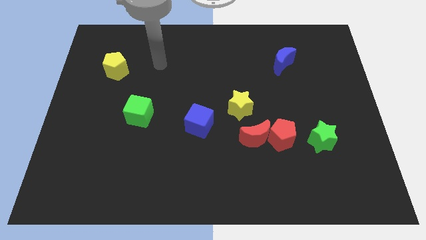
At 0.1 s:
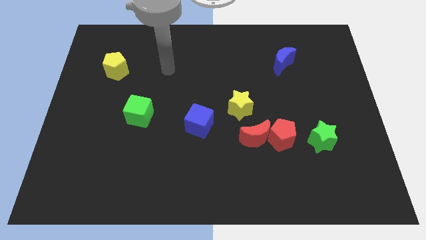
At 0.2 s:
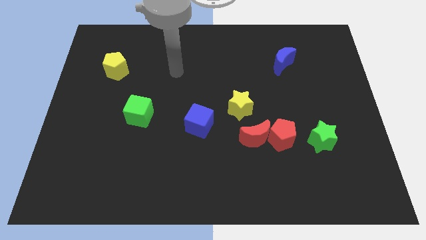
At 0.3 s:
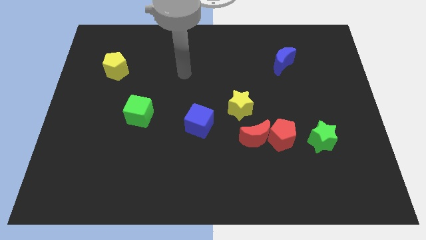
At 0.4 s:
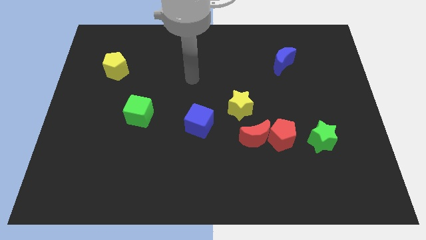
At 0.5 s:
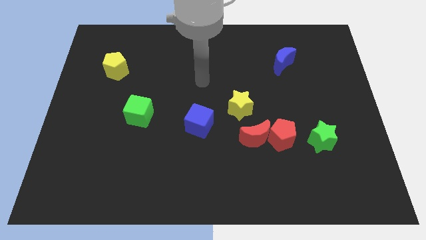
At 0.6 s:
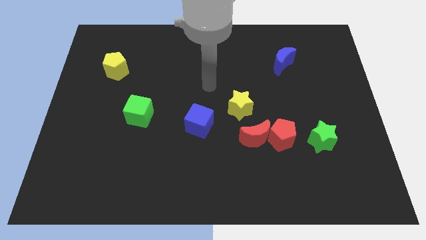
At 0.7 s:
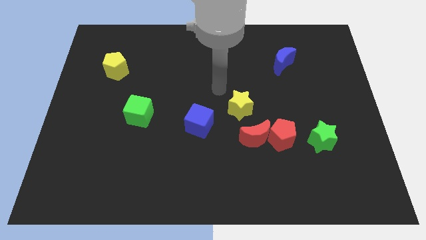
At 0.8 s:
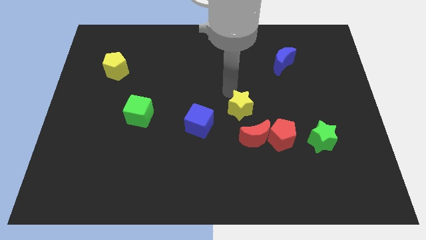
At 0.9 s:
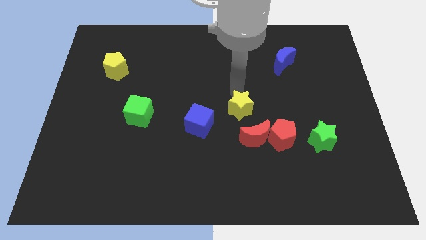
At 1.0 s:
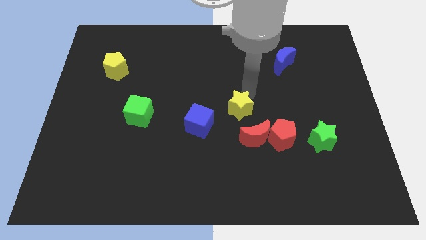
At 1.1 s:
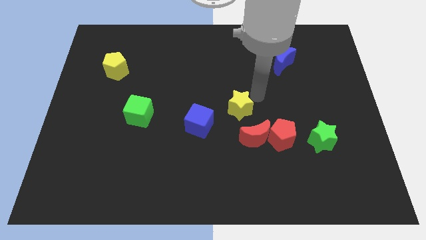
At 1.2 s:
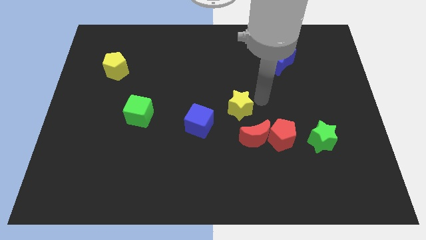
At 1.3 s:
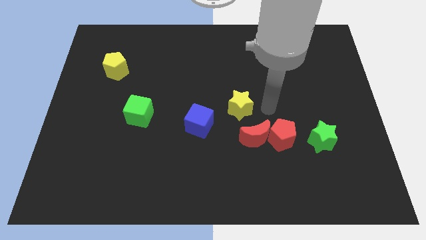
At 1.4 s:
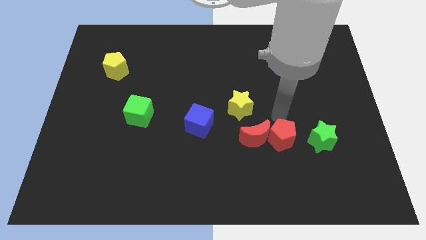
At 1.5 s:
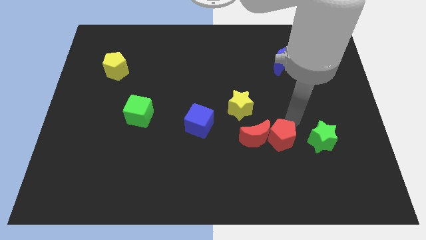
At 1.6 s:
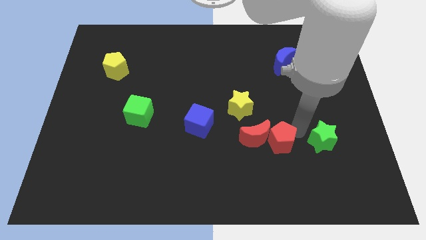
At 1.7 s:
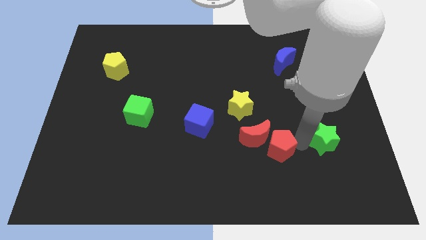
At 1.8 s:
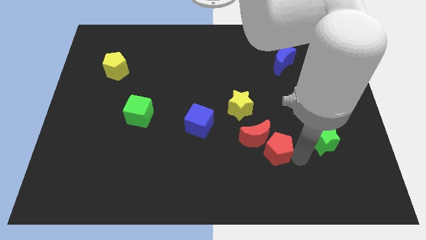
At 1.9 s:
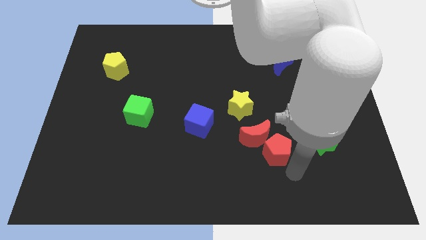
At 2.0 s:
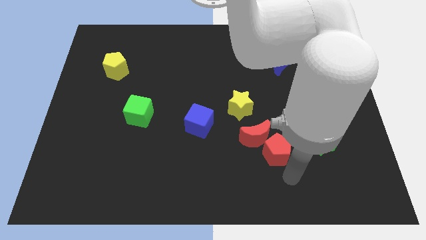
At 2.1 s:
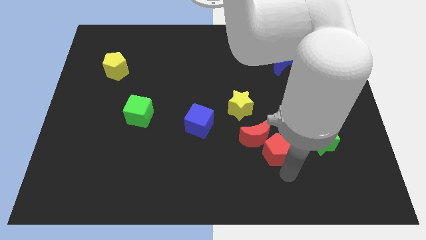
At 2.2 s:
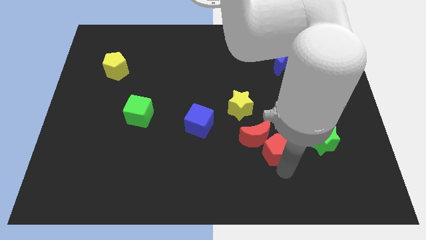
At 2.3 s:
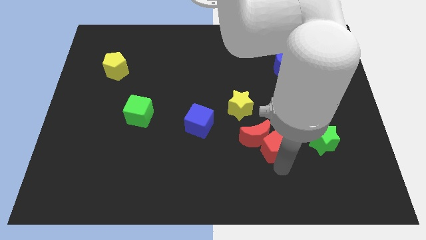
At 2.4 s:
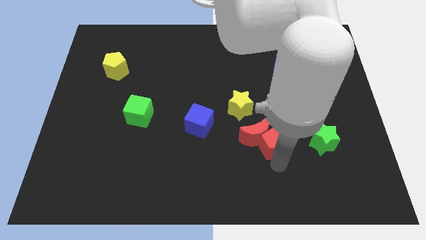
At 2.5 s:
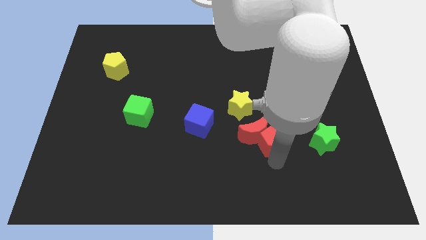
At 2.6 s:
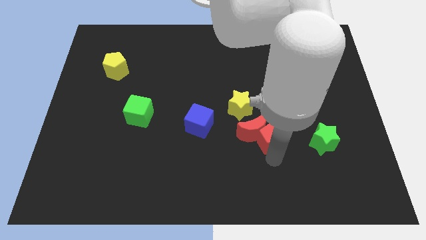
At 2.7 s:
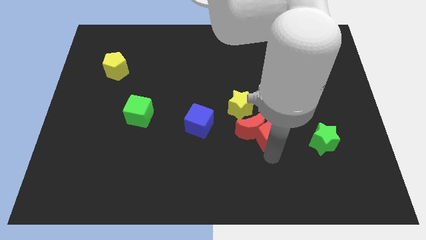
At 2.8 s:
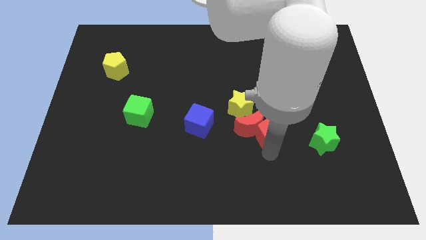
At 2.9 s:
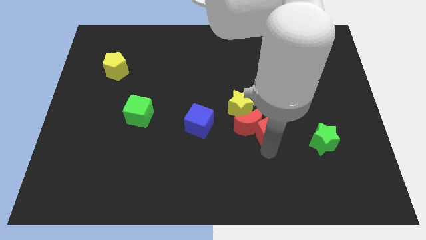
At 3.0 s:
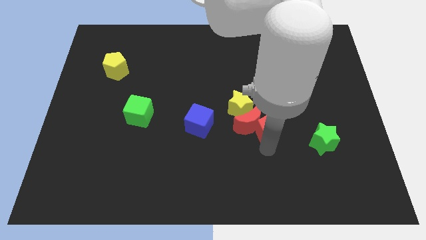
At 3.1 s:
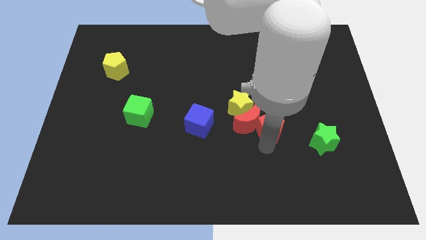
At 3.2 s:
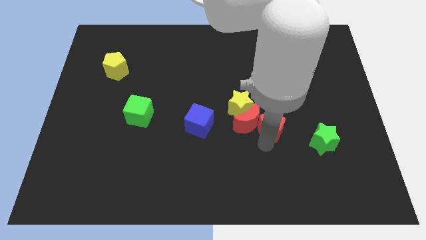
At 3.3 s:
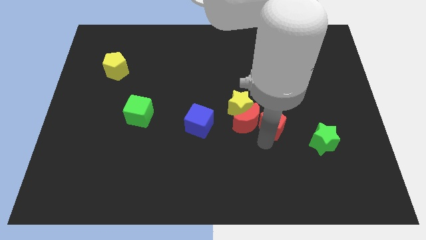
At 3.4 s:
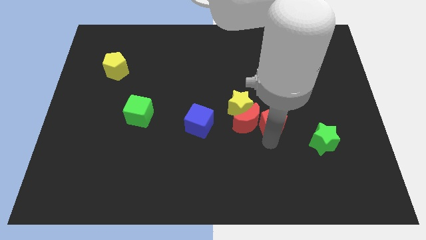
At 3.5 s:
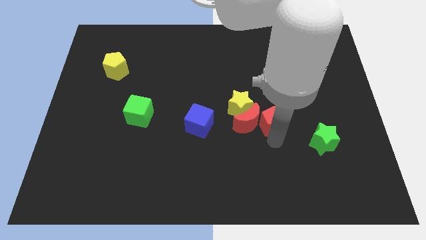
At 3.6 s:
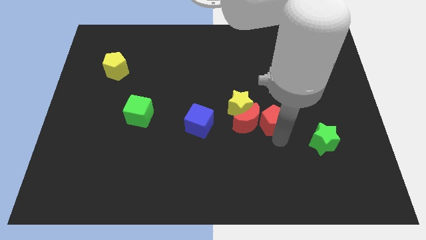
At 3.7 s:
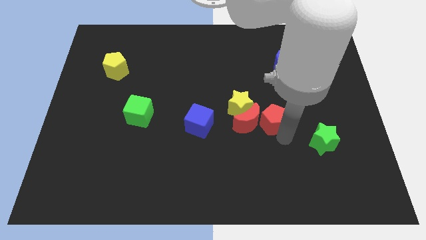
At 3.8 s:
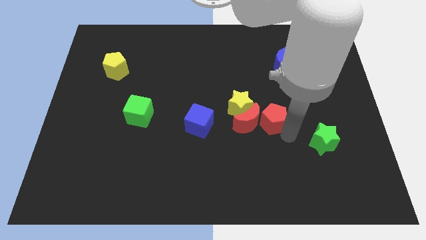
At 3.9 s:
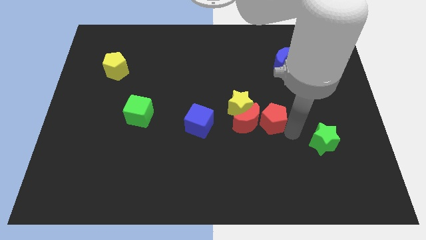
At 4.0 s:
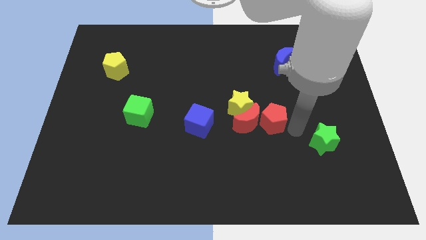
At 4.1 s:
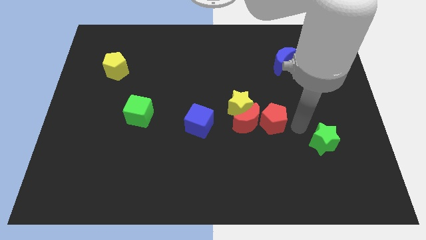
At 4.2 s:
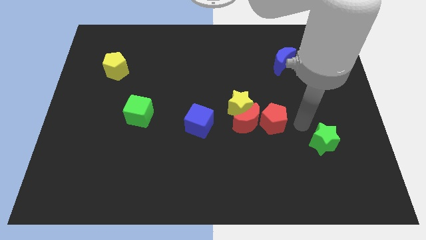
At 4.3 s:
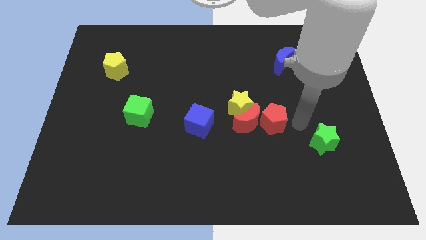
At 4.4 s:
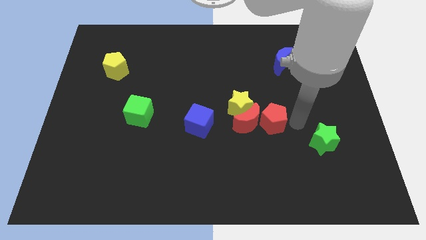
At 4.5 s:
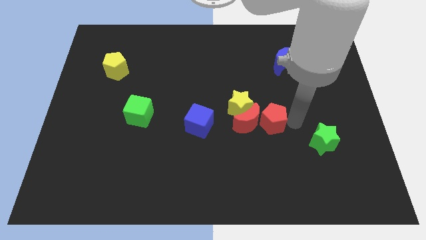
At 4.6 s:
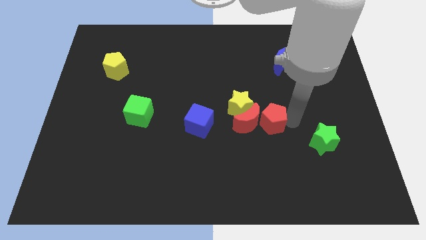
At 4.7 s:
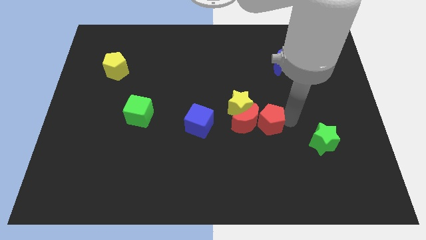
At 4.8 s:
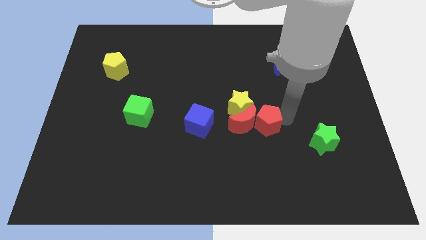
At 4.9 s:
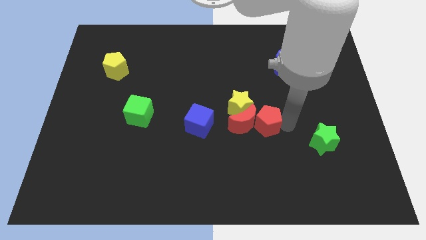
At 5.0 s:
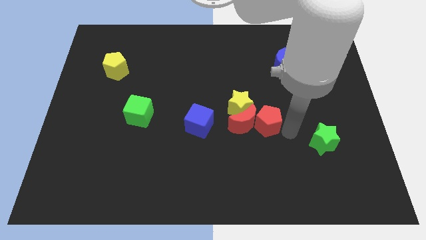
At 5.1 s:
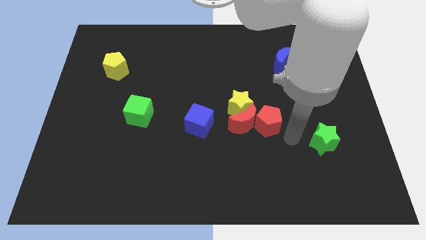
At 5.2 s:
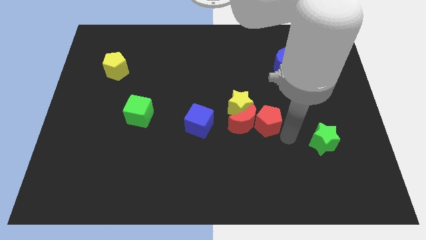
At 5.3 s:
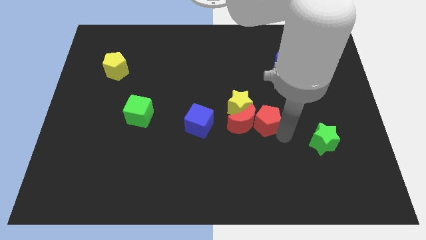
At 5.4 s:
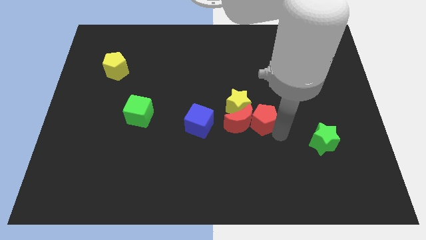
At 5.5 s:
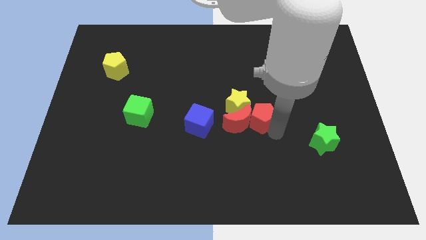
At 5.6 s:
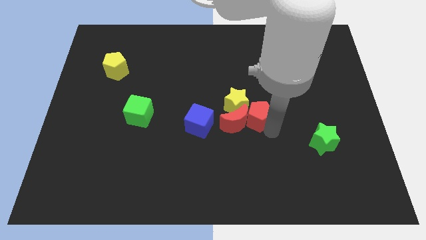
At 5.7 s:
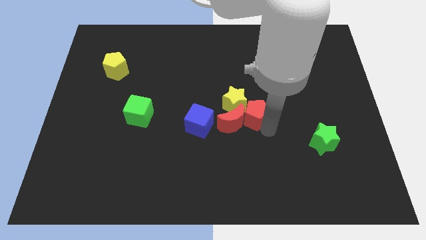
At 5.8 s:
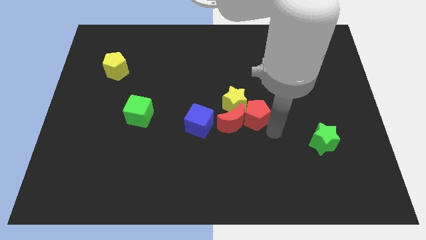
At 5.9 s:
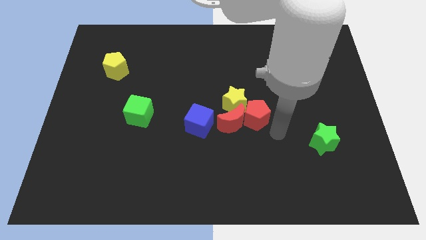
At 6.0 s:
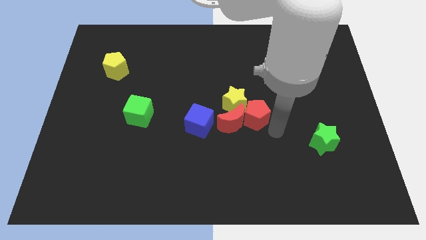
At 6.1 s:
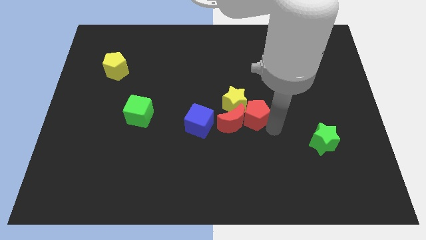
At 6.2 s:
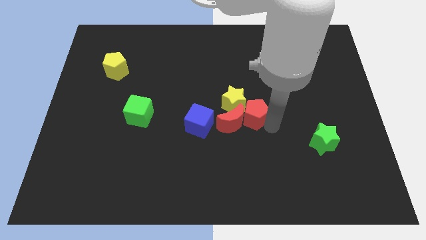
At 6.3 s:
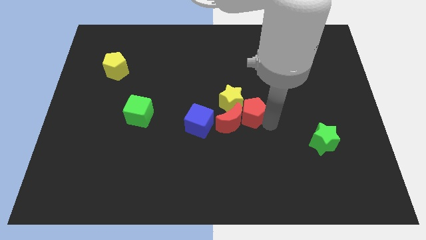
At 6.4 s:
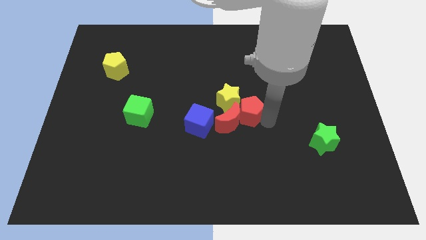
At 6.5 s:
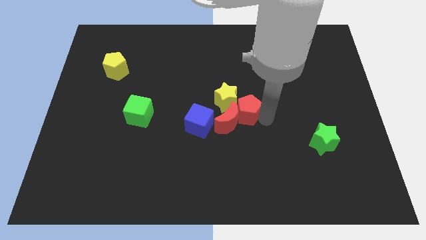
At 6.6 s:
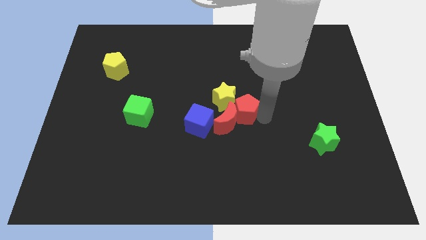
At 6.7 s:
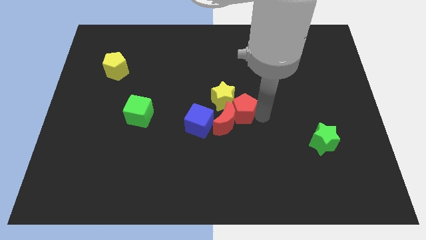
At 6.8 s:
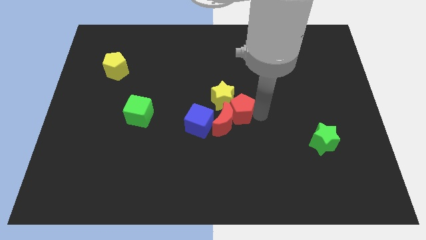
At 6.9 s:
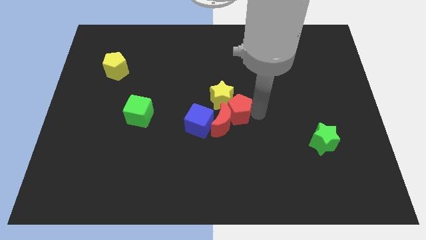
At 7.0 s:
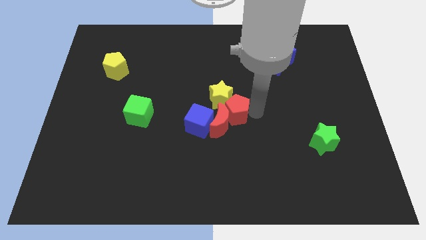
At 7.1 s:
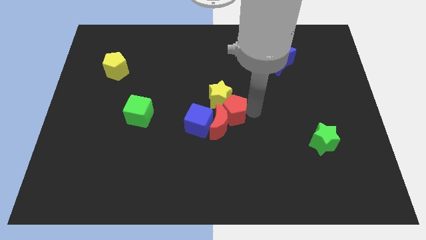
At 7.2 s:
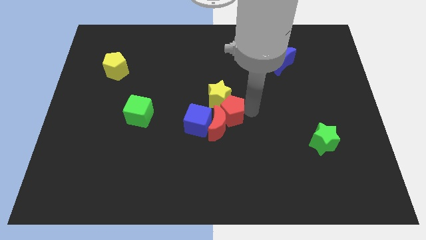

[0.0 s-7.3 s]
move the red pentagon away from the red moon and green star

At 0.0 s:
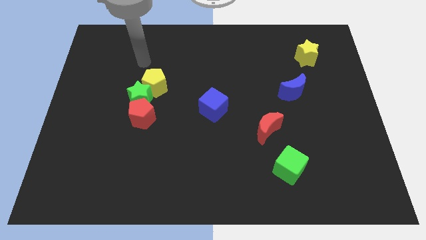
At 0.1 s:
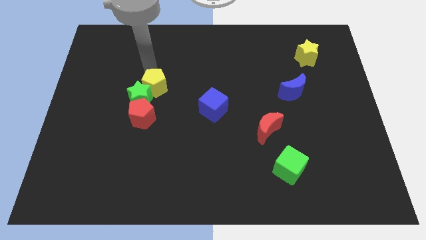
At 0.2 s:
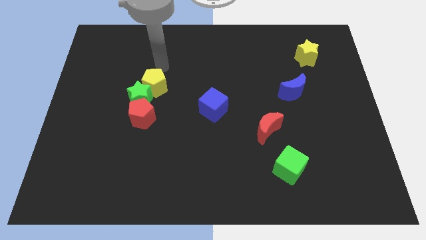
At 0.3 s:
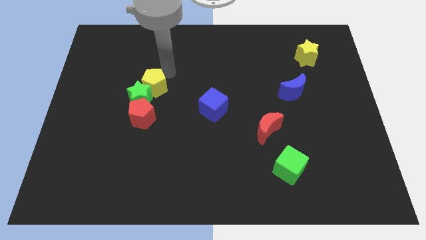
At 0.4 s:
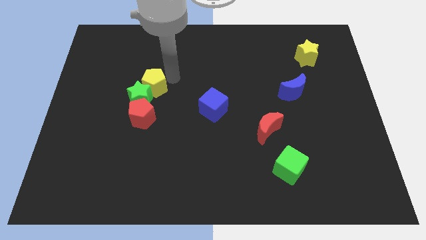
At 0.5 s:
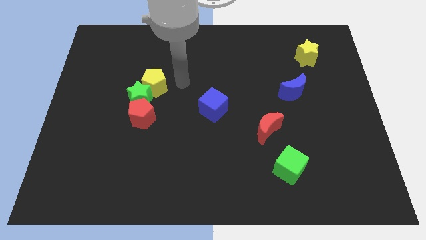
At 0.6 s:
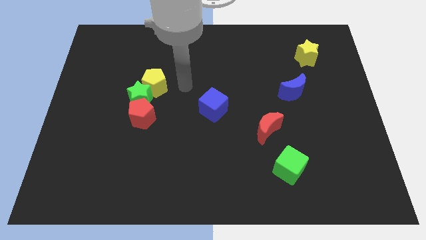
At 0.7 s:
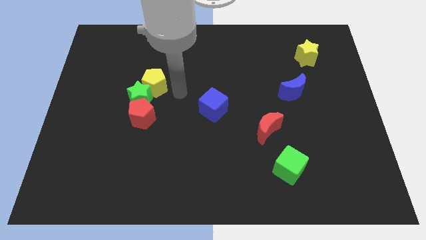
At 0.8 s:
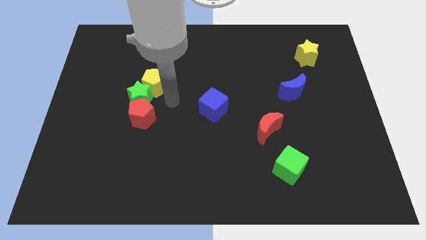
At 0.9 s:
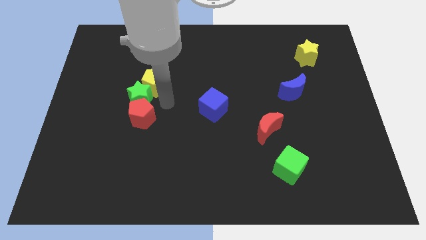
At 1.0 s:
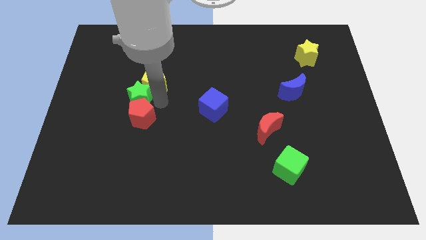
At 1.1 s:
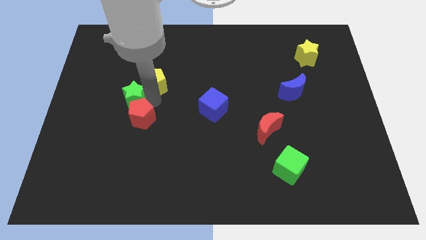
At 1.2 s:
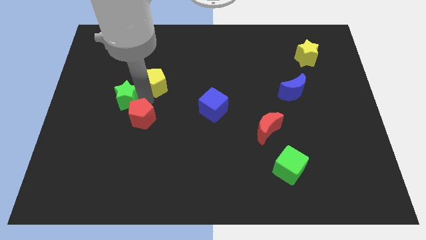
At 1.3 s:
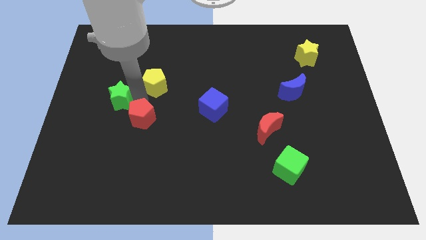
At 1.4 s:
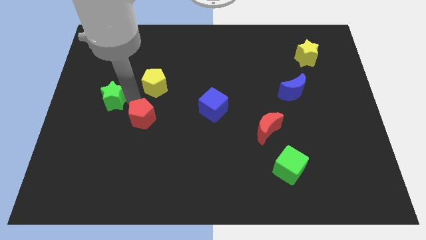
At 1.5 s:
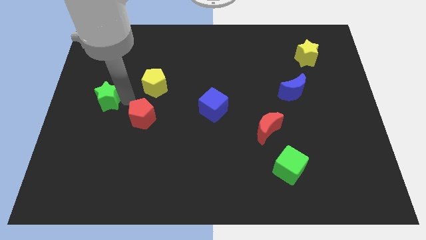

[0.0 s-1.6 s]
pull the green star apart from the yellow pentagon and red pentagon

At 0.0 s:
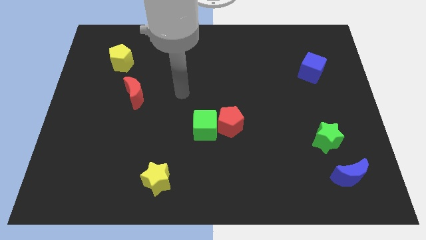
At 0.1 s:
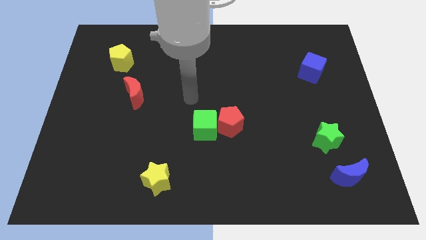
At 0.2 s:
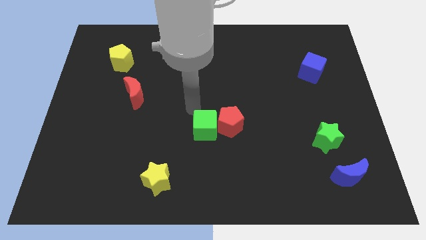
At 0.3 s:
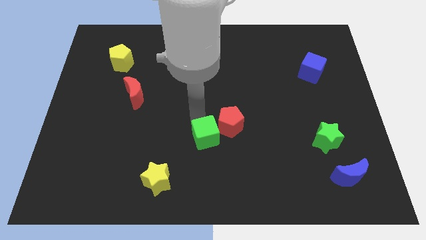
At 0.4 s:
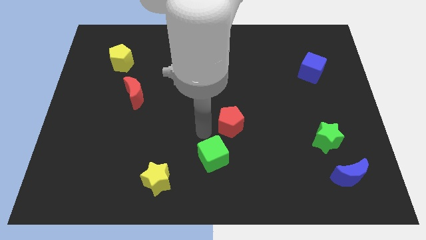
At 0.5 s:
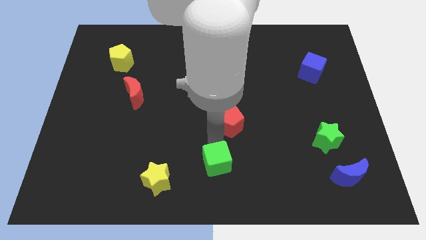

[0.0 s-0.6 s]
move the red pentagon away from the green cube
